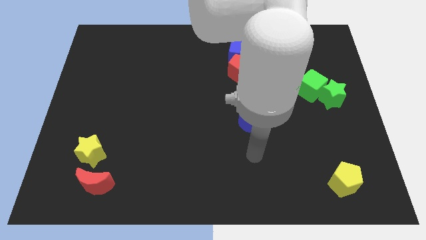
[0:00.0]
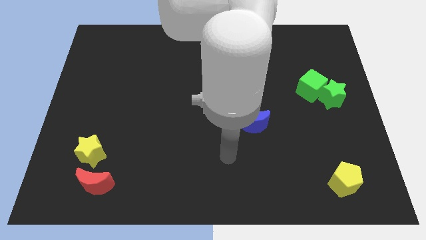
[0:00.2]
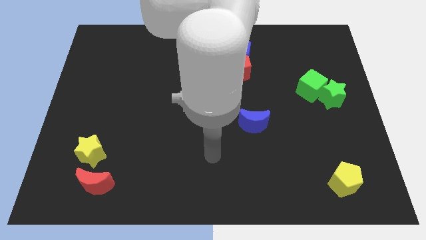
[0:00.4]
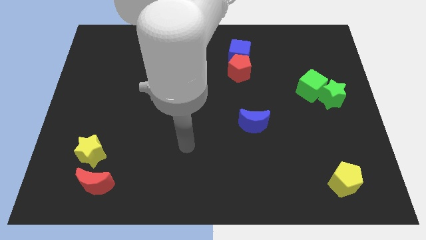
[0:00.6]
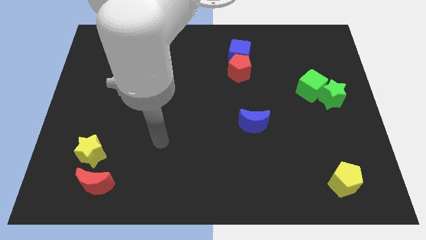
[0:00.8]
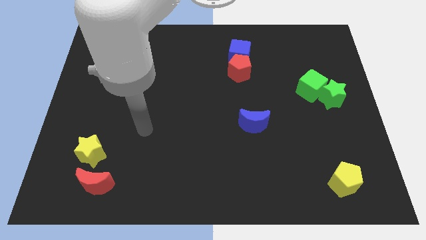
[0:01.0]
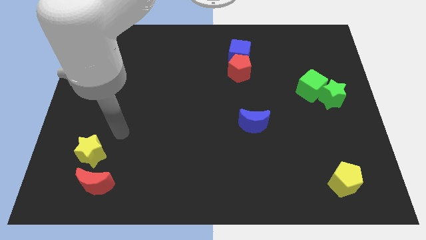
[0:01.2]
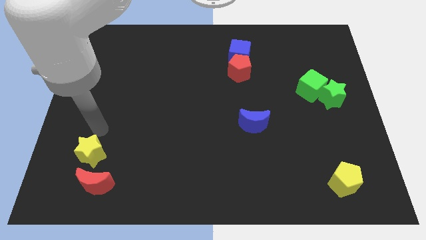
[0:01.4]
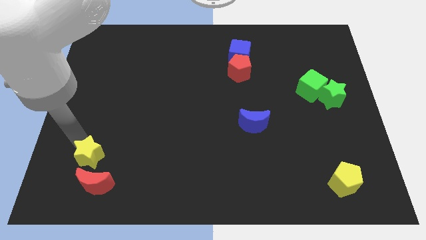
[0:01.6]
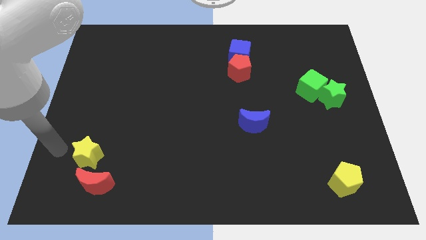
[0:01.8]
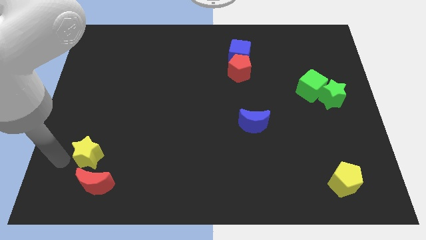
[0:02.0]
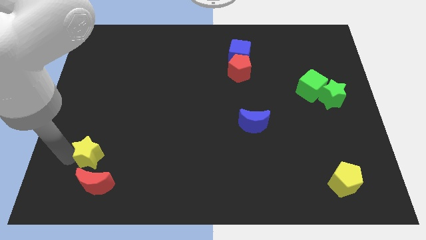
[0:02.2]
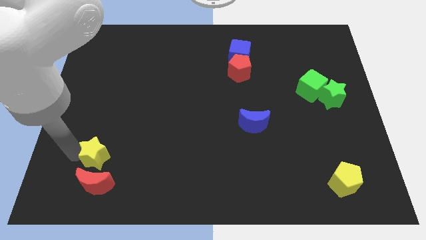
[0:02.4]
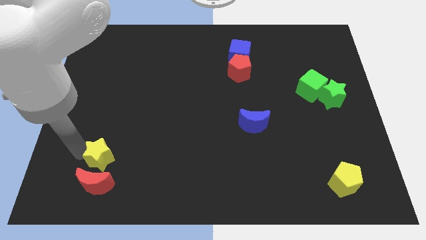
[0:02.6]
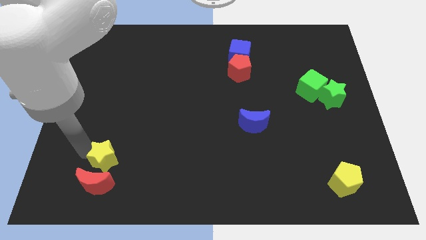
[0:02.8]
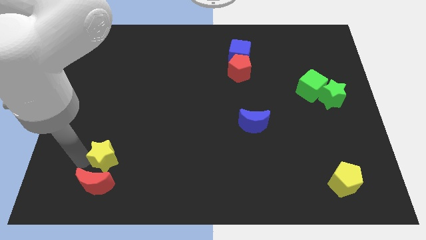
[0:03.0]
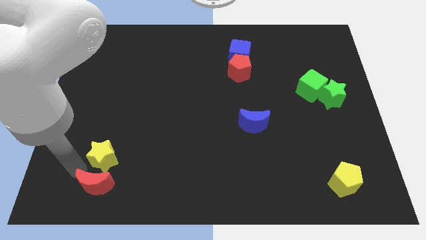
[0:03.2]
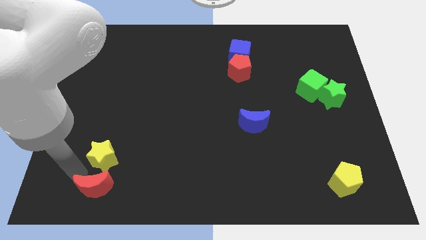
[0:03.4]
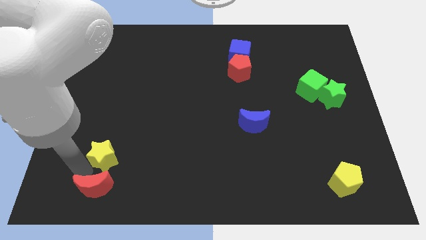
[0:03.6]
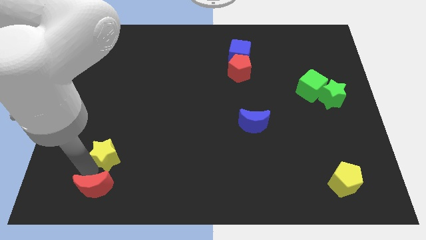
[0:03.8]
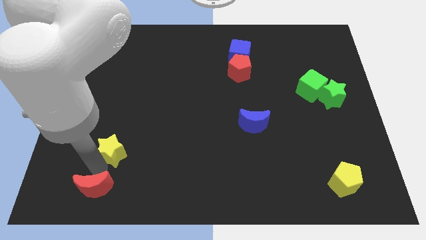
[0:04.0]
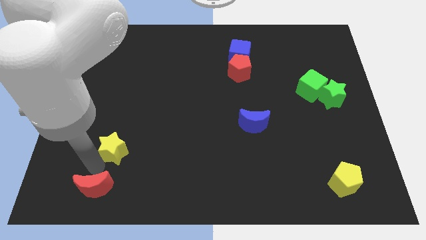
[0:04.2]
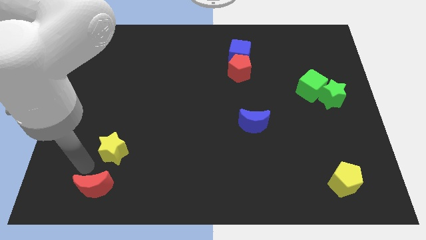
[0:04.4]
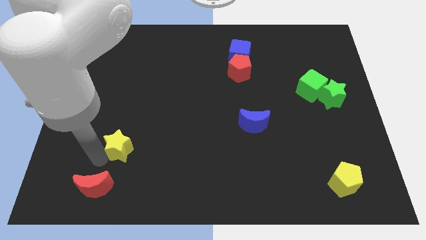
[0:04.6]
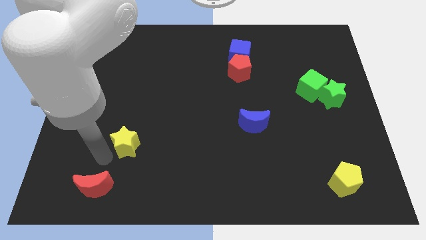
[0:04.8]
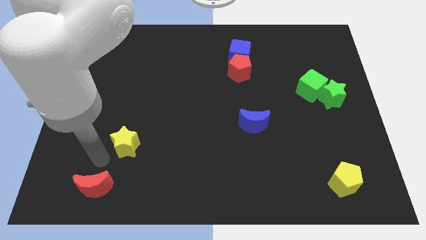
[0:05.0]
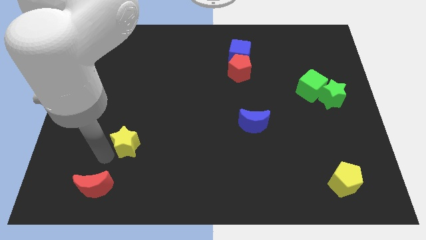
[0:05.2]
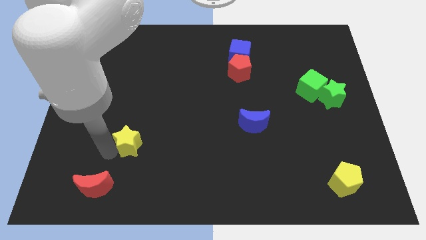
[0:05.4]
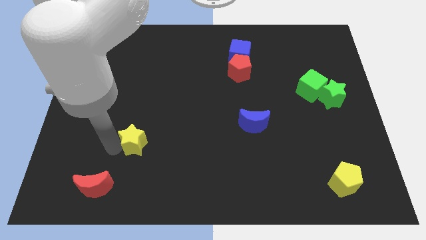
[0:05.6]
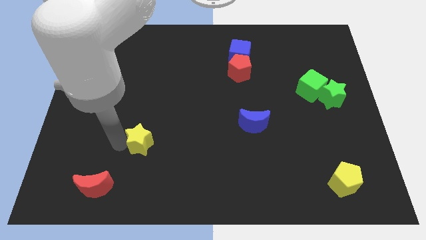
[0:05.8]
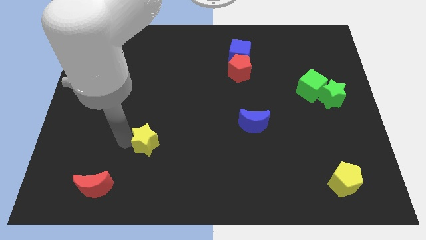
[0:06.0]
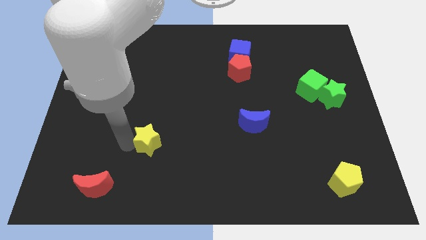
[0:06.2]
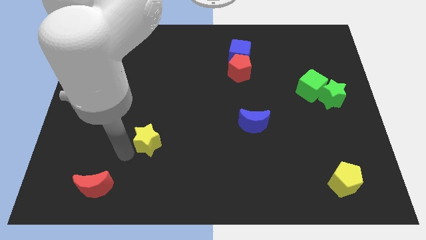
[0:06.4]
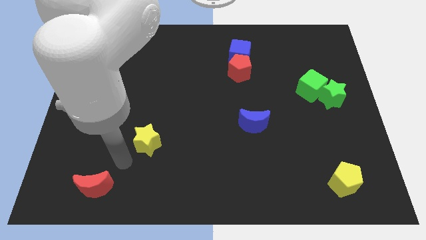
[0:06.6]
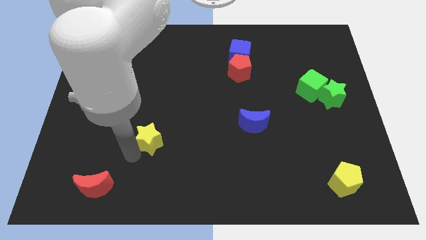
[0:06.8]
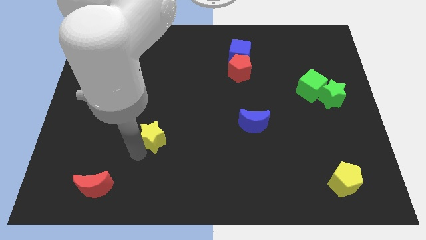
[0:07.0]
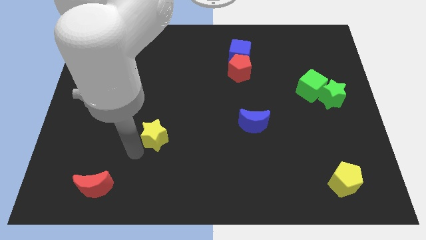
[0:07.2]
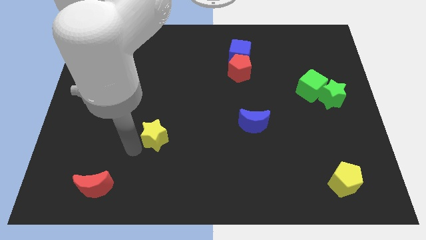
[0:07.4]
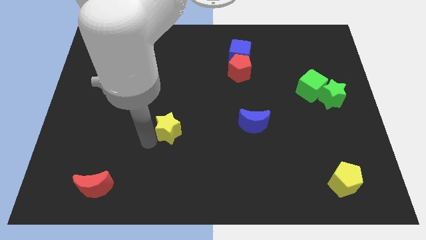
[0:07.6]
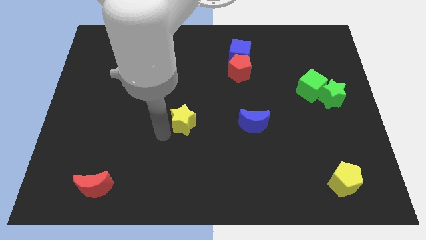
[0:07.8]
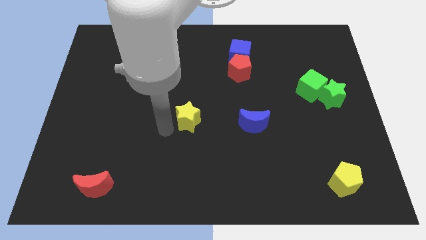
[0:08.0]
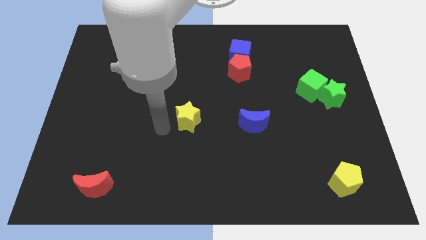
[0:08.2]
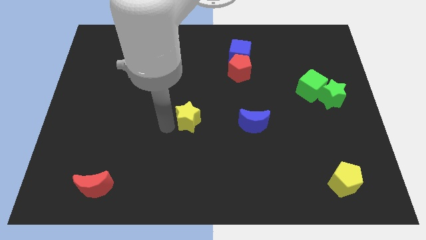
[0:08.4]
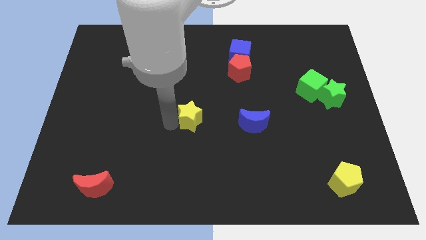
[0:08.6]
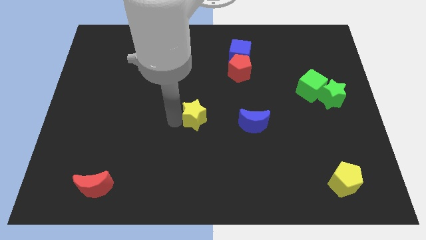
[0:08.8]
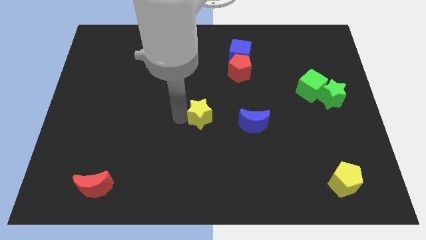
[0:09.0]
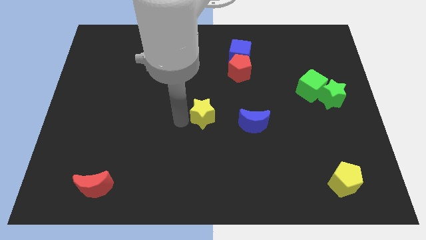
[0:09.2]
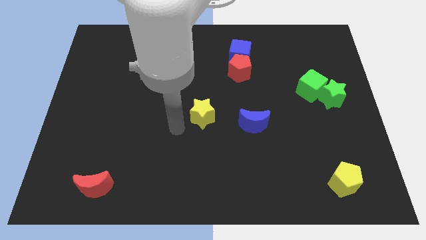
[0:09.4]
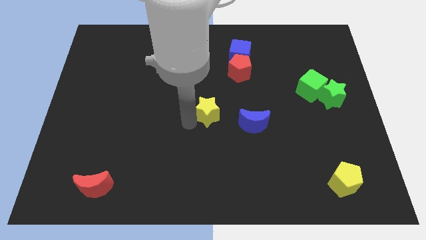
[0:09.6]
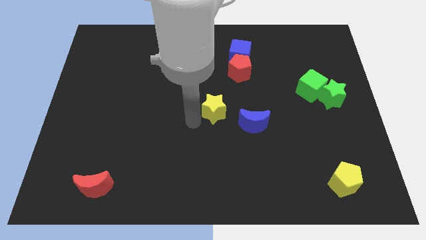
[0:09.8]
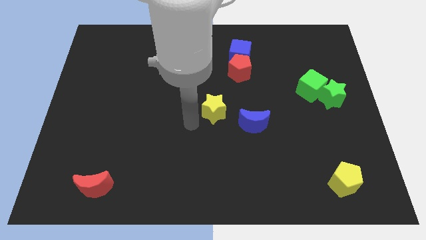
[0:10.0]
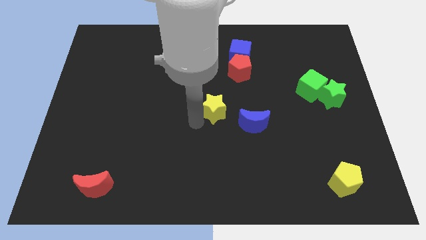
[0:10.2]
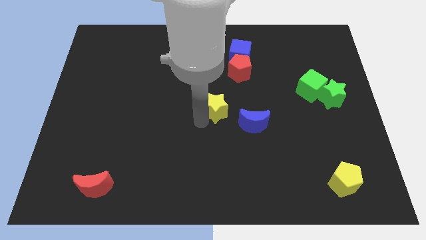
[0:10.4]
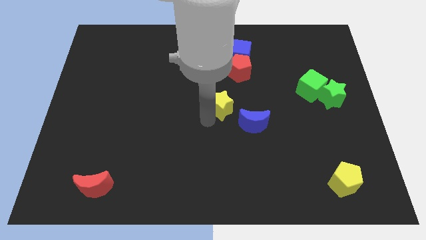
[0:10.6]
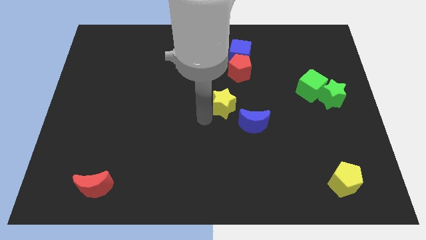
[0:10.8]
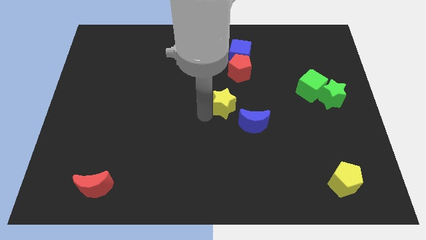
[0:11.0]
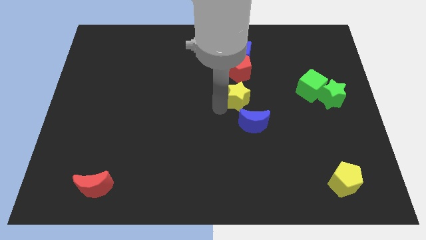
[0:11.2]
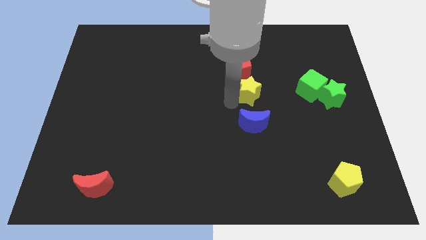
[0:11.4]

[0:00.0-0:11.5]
put the yellow star to the left side of the green cube
